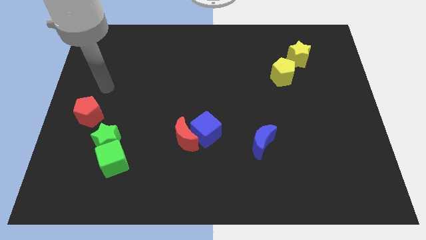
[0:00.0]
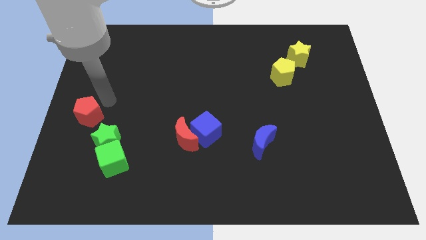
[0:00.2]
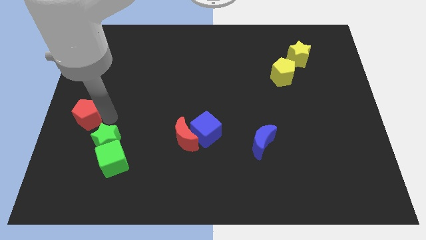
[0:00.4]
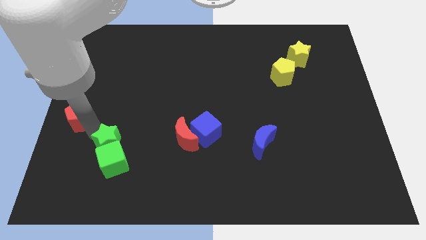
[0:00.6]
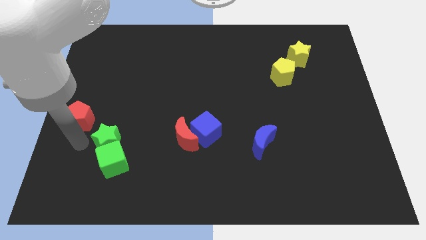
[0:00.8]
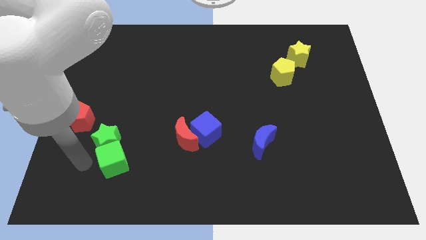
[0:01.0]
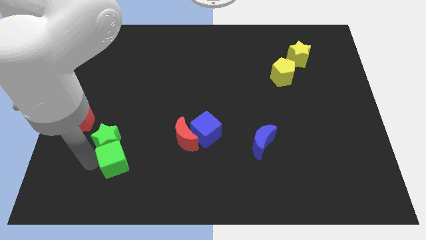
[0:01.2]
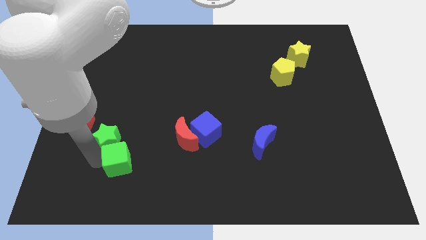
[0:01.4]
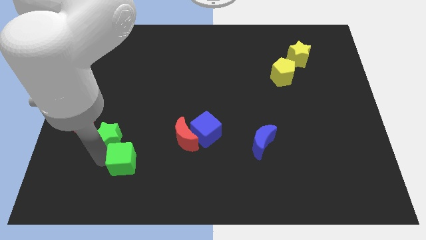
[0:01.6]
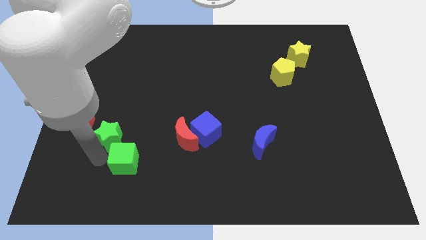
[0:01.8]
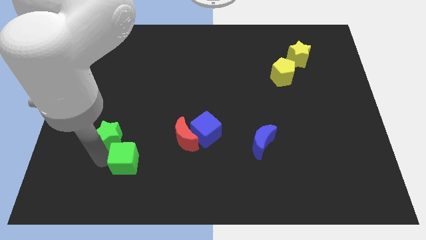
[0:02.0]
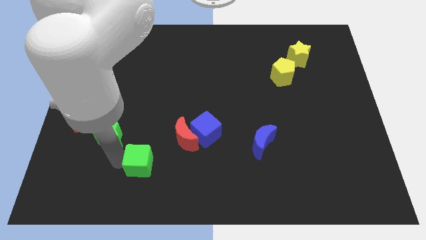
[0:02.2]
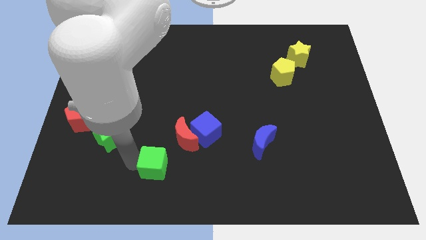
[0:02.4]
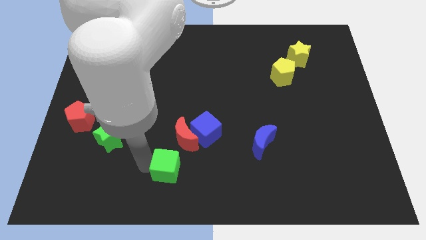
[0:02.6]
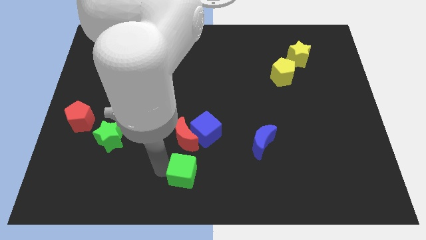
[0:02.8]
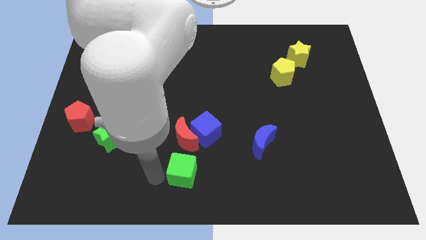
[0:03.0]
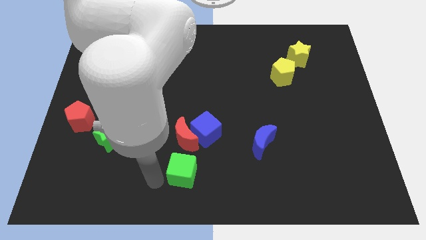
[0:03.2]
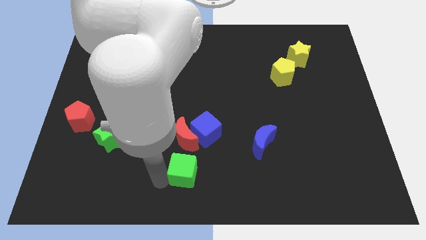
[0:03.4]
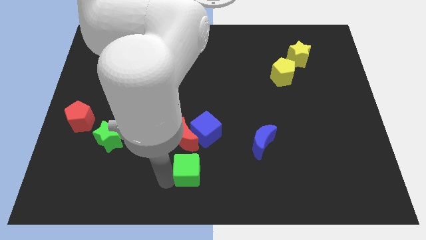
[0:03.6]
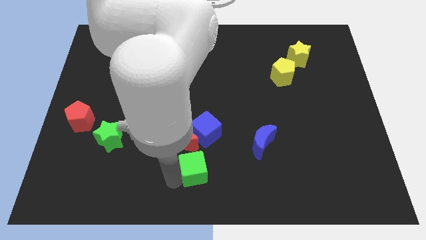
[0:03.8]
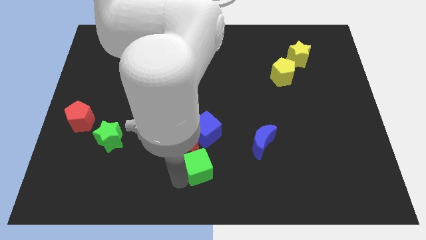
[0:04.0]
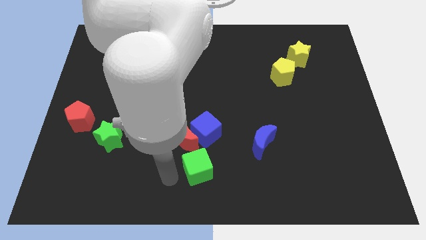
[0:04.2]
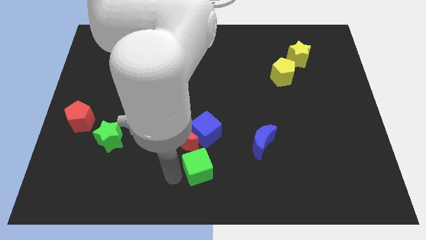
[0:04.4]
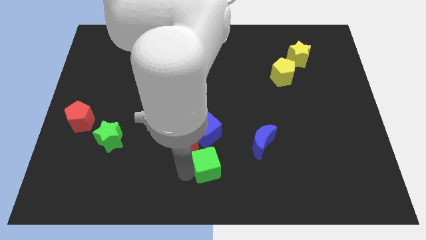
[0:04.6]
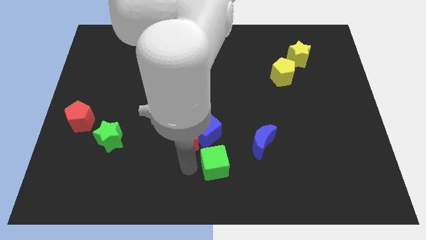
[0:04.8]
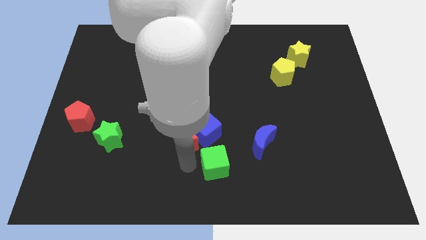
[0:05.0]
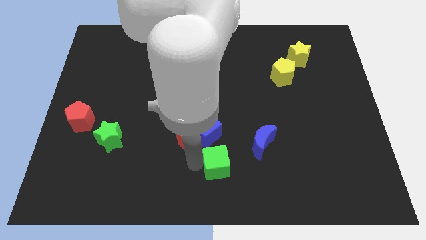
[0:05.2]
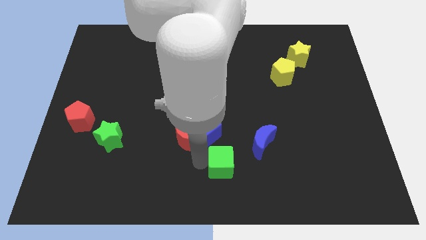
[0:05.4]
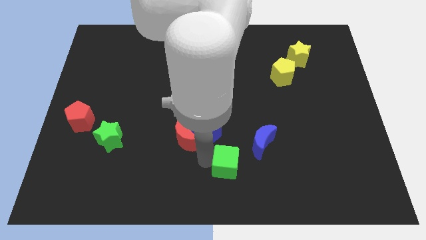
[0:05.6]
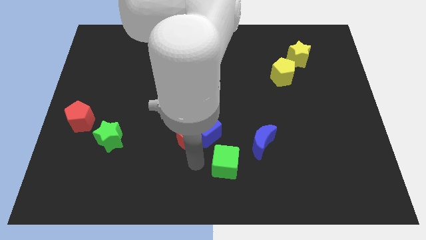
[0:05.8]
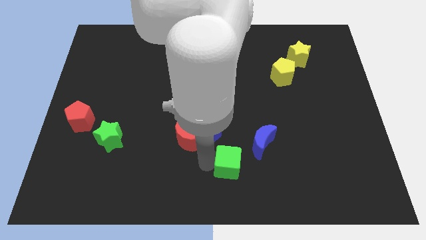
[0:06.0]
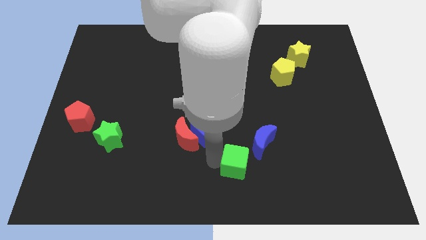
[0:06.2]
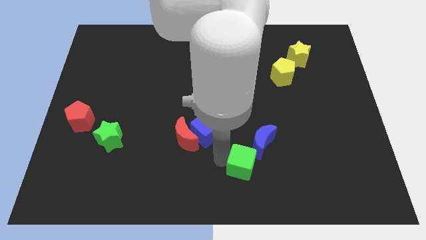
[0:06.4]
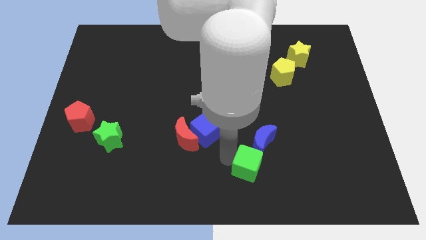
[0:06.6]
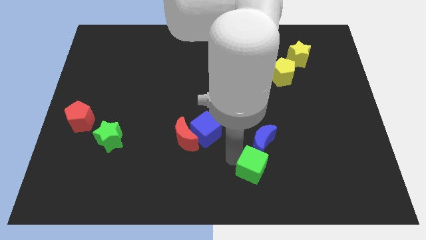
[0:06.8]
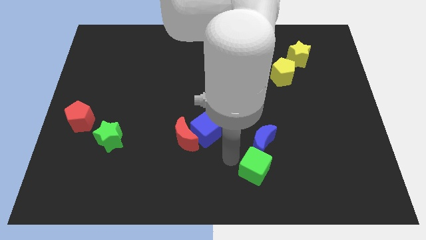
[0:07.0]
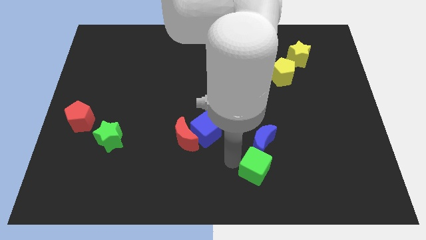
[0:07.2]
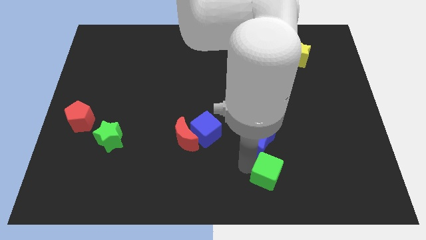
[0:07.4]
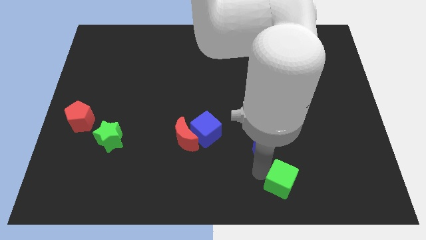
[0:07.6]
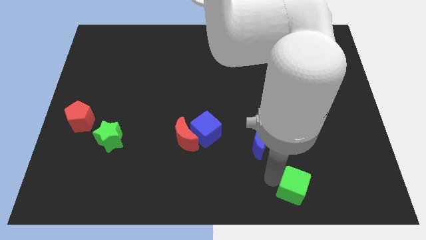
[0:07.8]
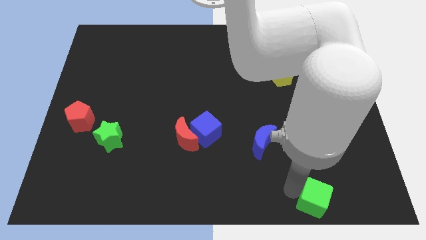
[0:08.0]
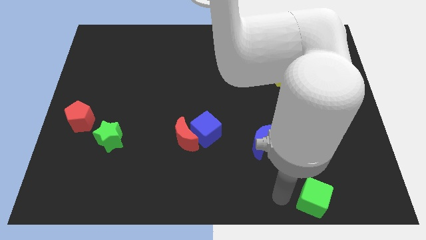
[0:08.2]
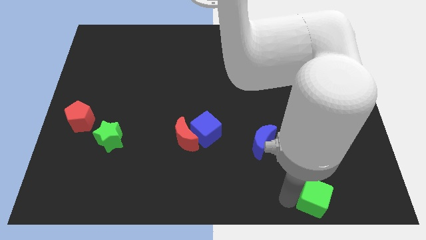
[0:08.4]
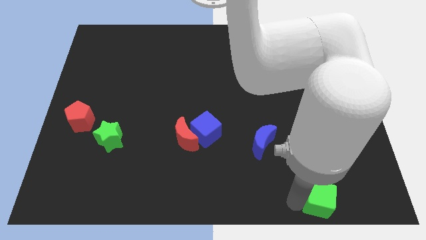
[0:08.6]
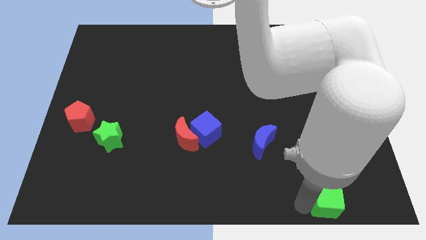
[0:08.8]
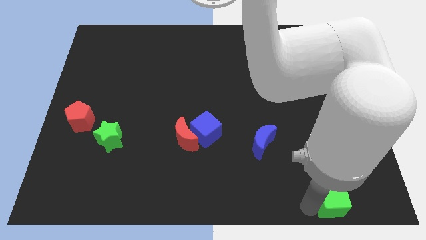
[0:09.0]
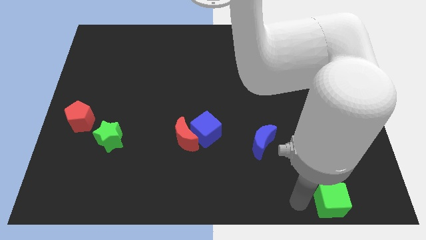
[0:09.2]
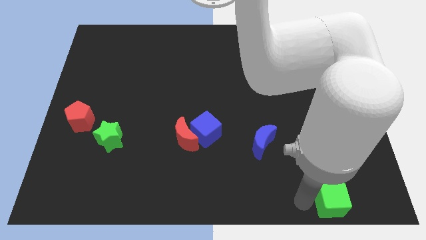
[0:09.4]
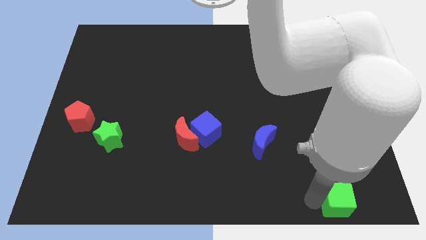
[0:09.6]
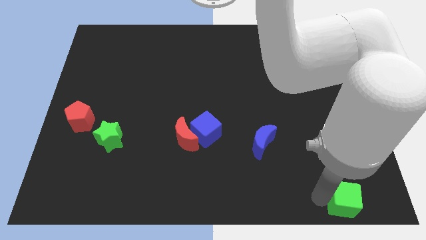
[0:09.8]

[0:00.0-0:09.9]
push the green cube to the lower right corner

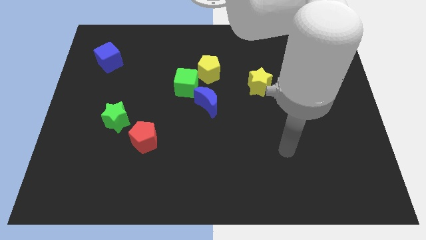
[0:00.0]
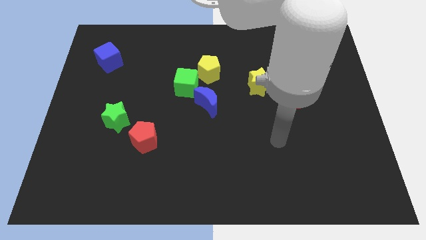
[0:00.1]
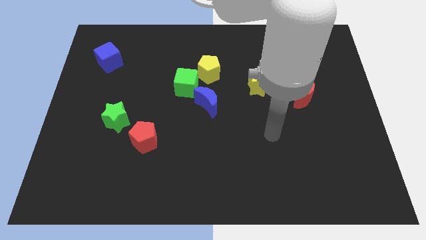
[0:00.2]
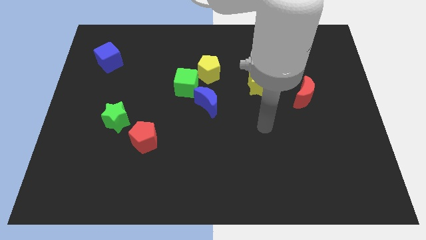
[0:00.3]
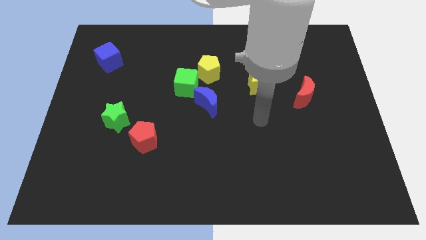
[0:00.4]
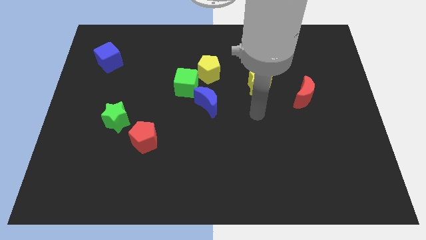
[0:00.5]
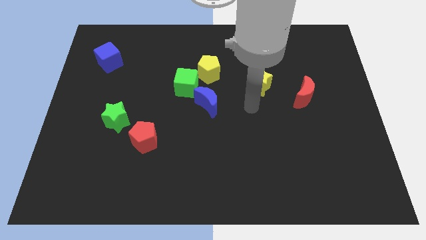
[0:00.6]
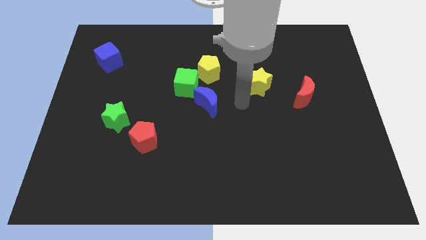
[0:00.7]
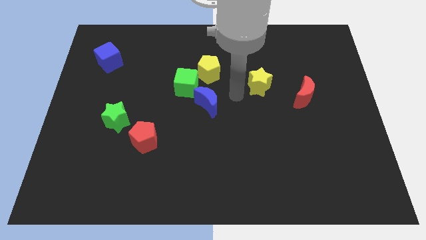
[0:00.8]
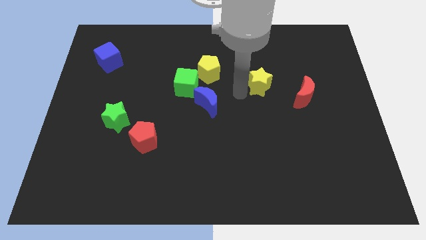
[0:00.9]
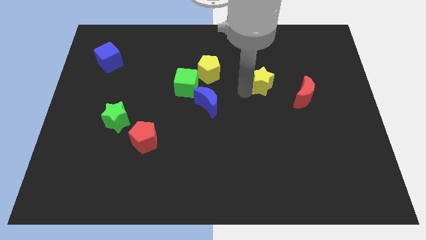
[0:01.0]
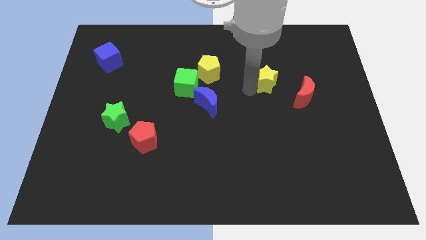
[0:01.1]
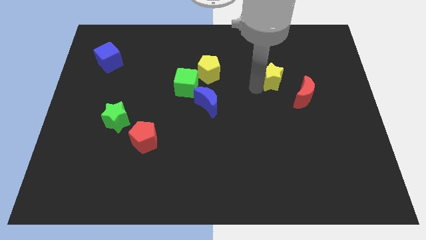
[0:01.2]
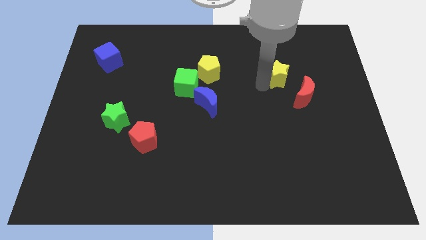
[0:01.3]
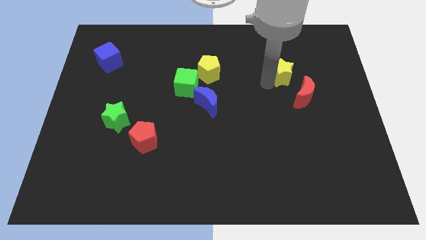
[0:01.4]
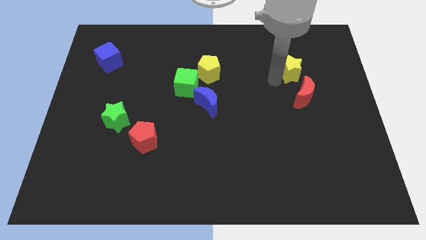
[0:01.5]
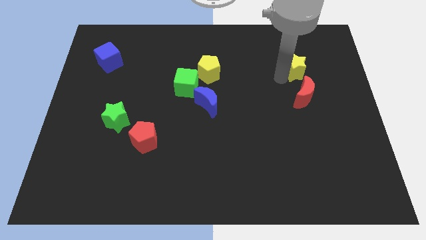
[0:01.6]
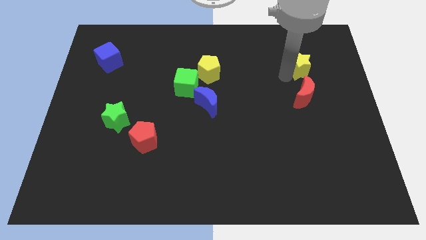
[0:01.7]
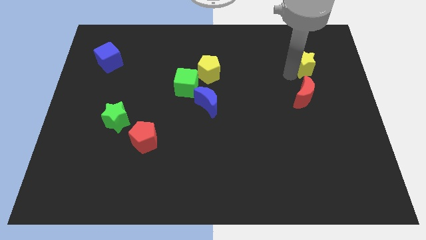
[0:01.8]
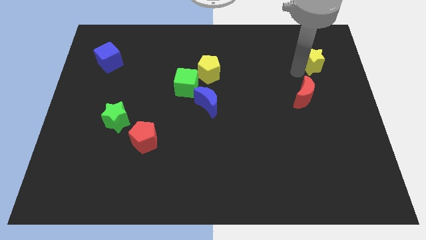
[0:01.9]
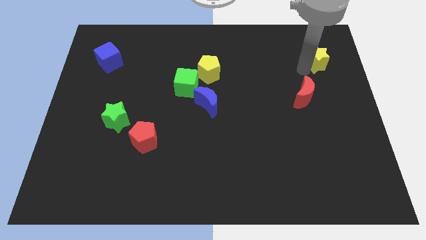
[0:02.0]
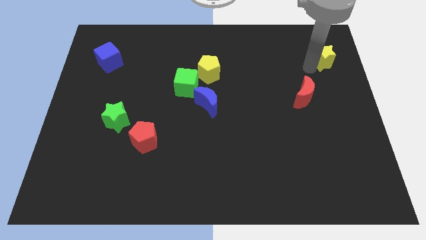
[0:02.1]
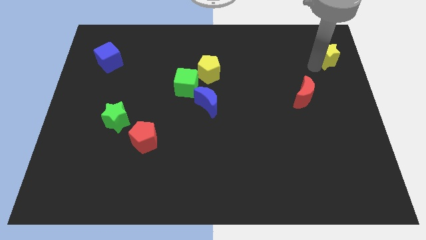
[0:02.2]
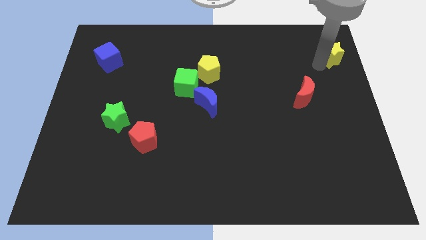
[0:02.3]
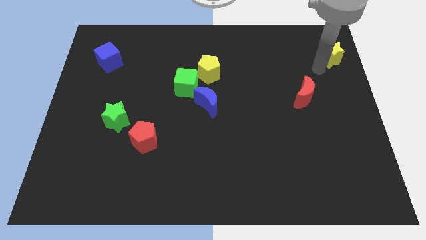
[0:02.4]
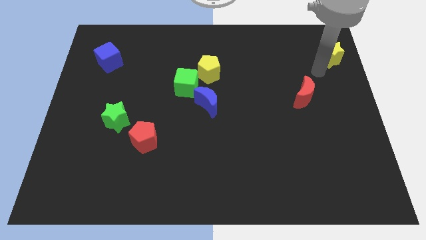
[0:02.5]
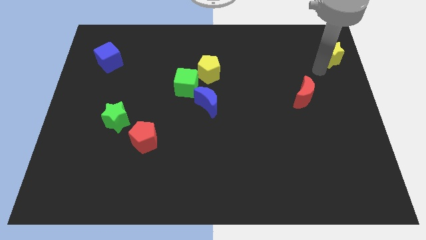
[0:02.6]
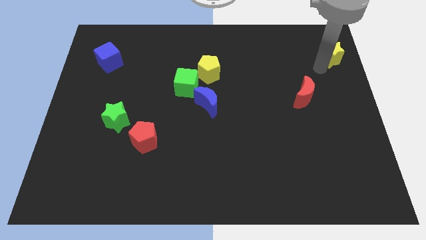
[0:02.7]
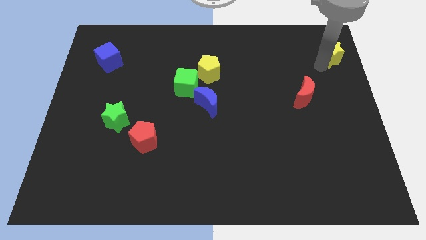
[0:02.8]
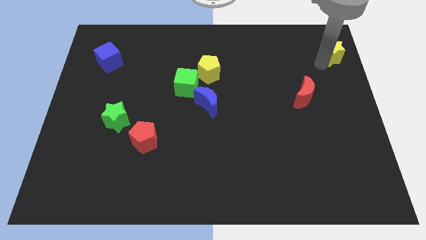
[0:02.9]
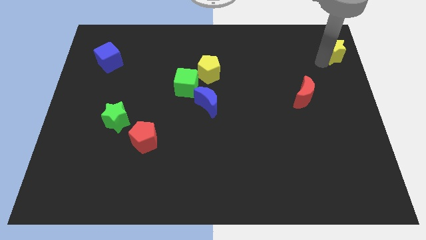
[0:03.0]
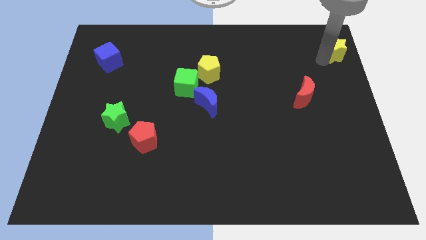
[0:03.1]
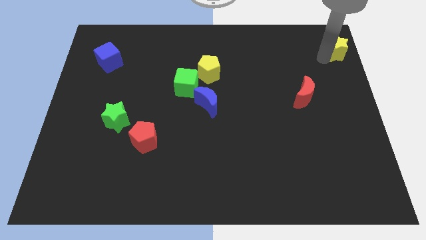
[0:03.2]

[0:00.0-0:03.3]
push the yellow star to the upper right corner

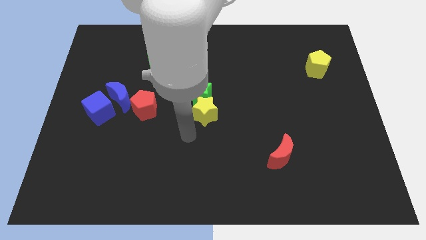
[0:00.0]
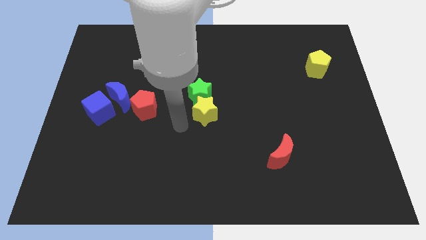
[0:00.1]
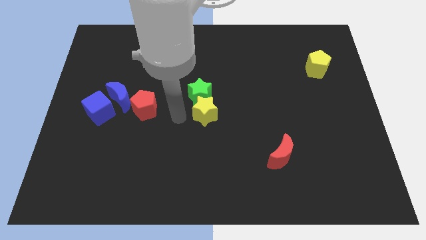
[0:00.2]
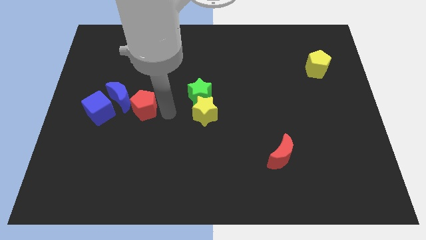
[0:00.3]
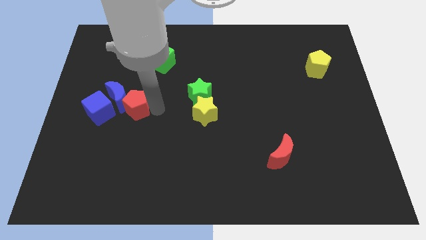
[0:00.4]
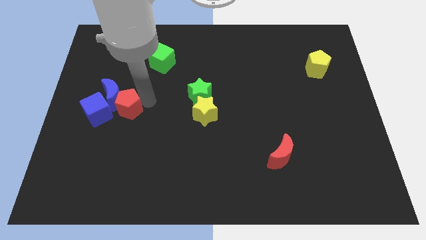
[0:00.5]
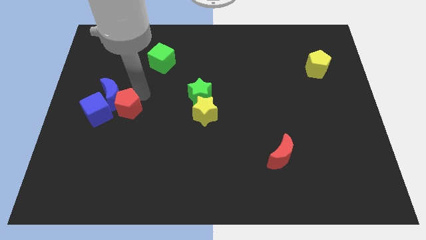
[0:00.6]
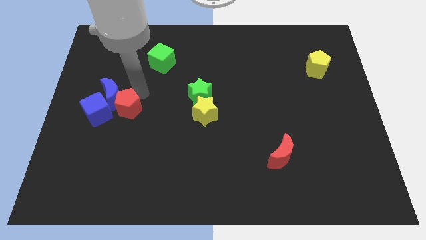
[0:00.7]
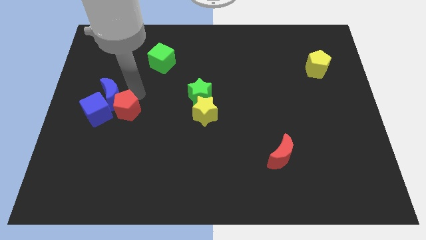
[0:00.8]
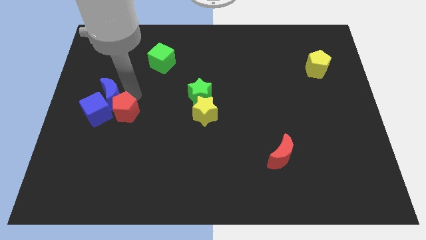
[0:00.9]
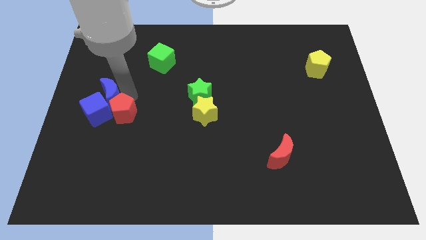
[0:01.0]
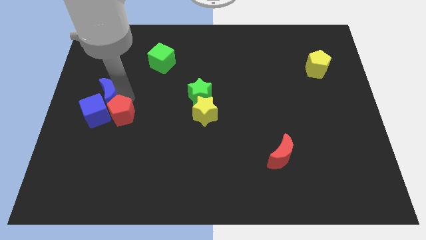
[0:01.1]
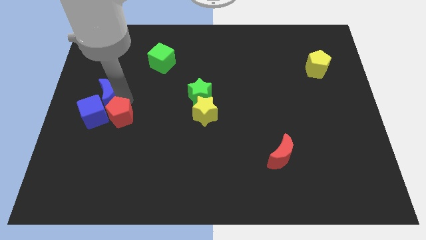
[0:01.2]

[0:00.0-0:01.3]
slide the blue moon to the center left
